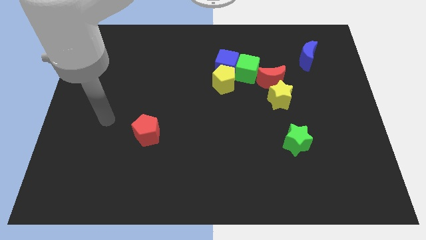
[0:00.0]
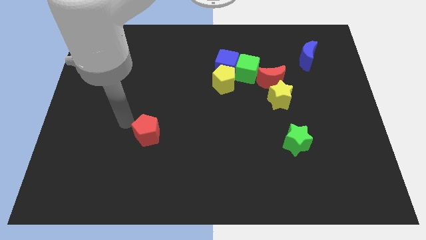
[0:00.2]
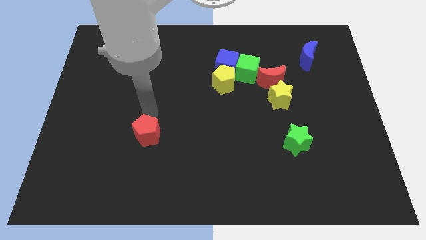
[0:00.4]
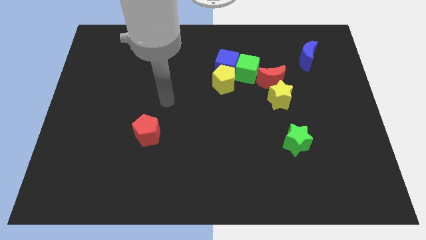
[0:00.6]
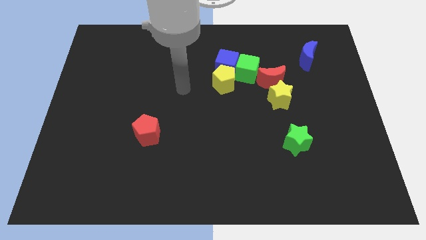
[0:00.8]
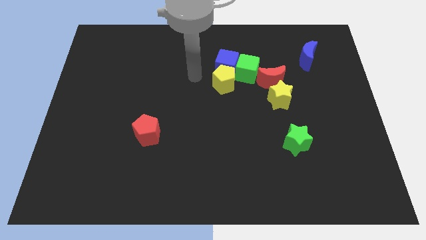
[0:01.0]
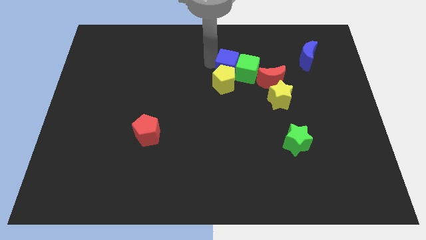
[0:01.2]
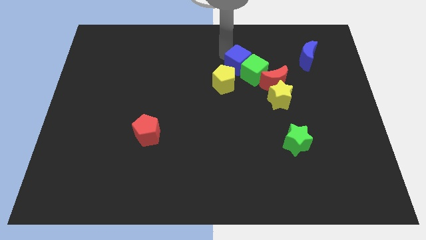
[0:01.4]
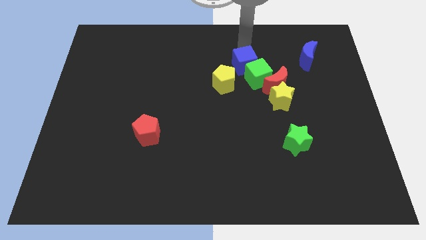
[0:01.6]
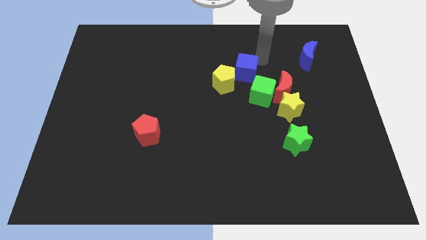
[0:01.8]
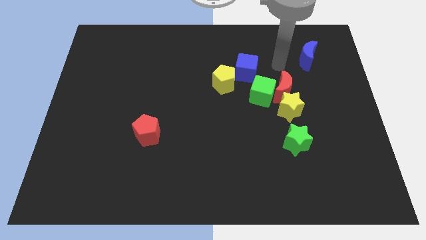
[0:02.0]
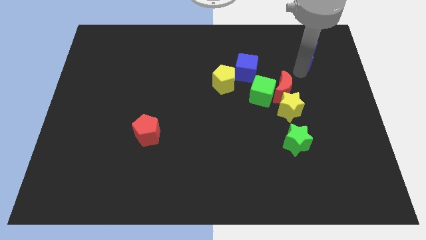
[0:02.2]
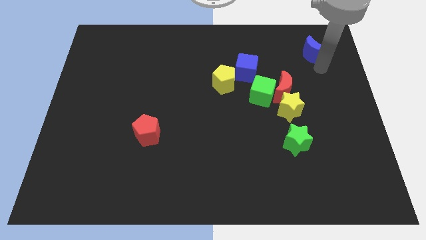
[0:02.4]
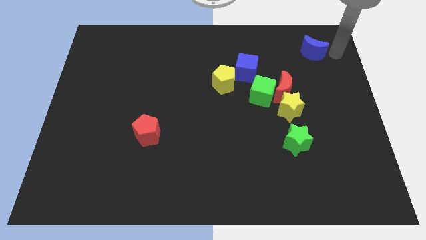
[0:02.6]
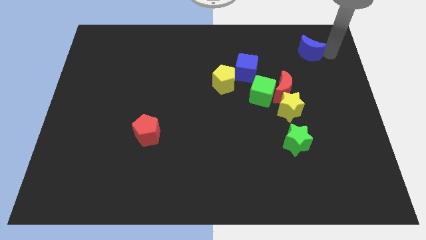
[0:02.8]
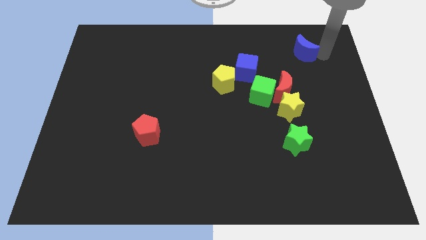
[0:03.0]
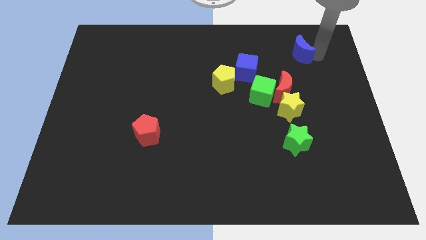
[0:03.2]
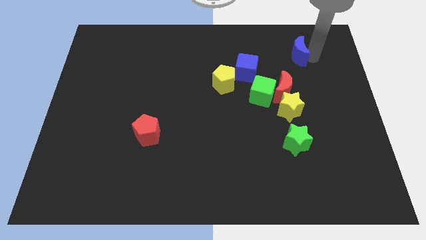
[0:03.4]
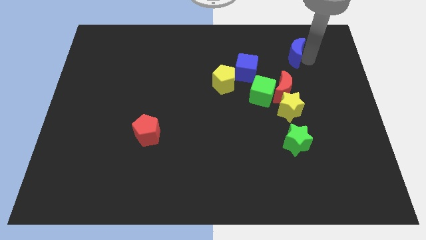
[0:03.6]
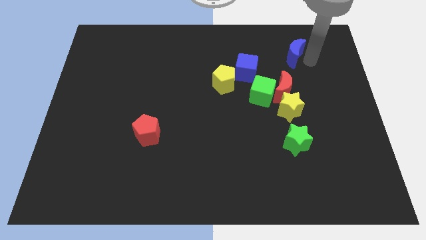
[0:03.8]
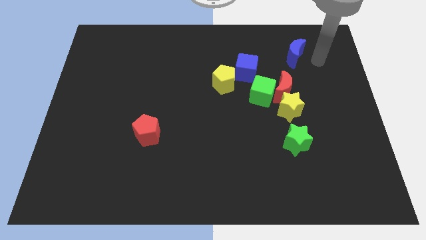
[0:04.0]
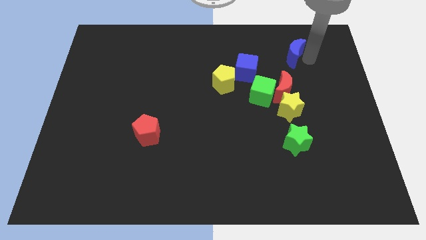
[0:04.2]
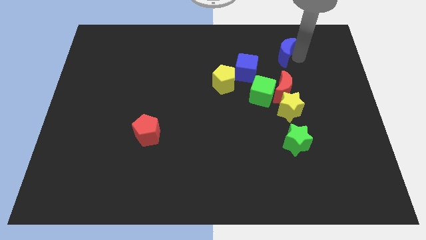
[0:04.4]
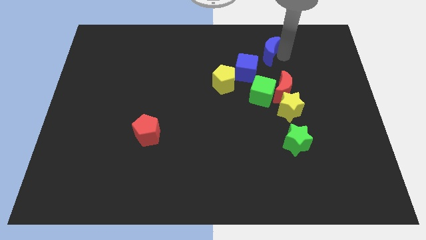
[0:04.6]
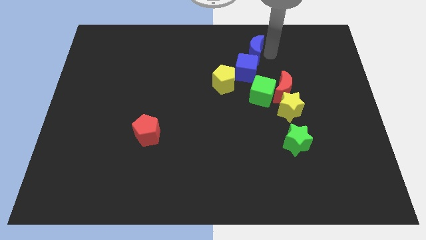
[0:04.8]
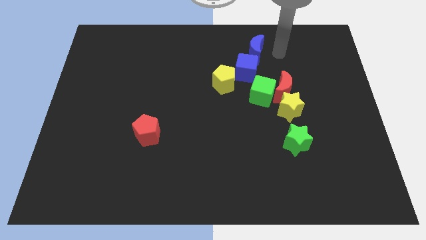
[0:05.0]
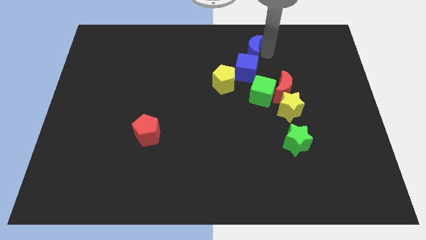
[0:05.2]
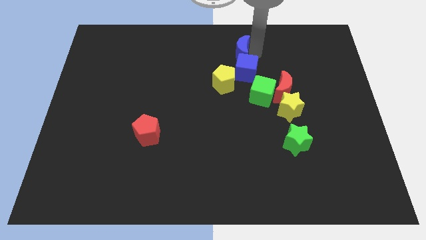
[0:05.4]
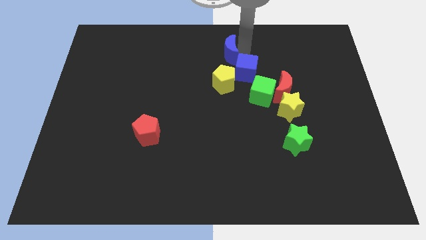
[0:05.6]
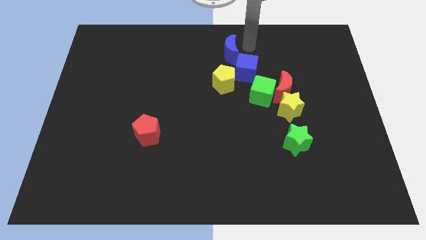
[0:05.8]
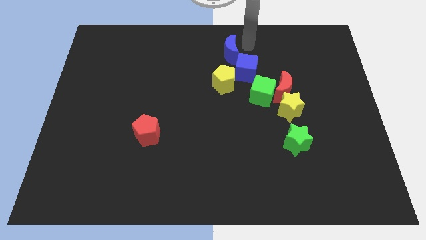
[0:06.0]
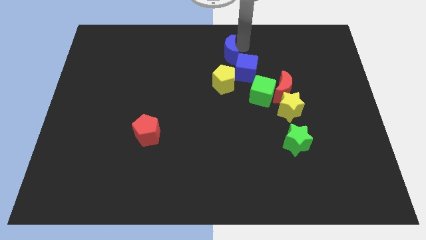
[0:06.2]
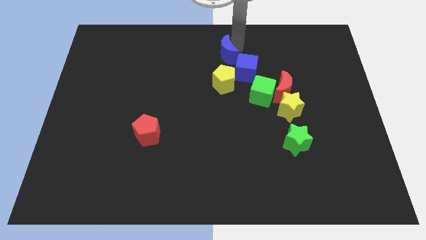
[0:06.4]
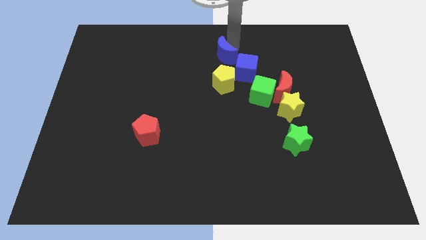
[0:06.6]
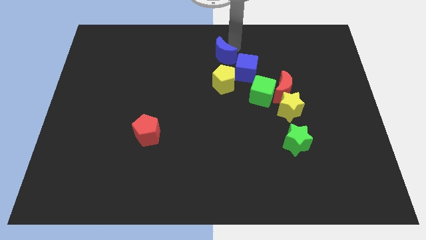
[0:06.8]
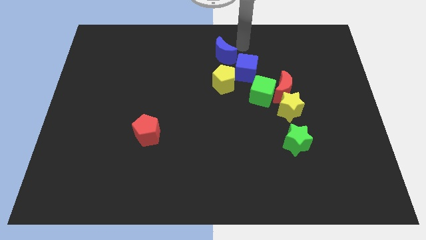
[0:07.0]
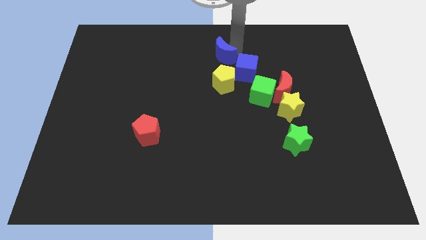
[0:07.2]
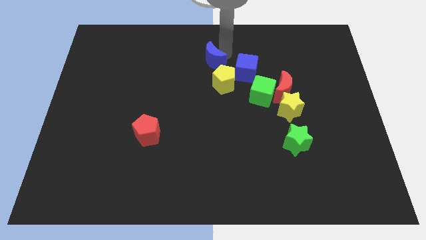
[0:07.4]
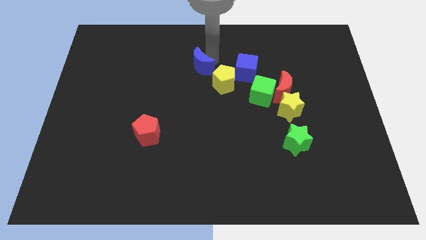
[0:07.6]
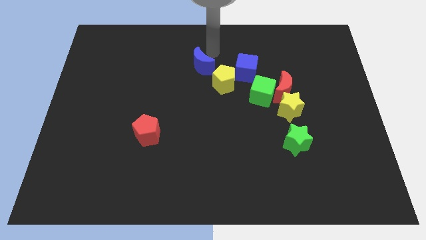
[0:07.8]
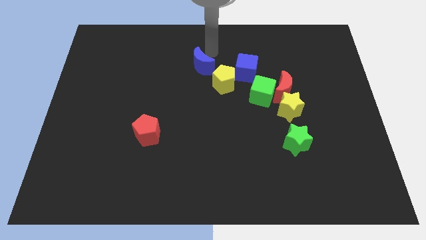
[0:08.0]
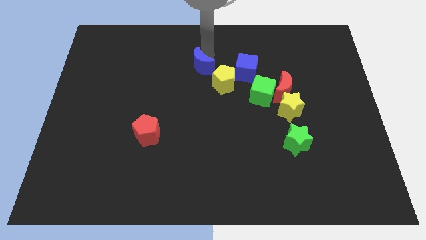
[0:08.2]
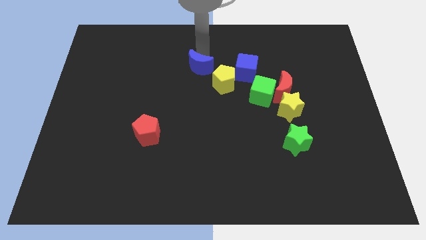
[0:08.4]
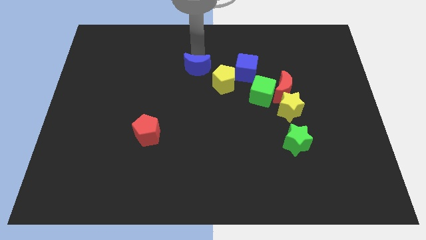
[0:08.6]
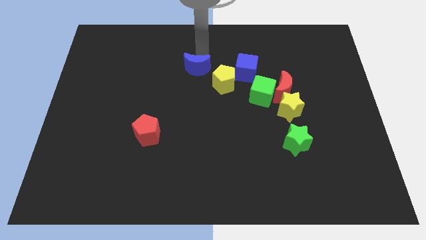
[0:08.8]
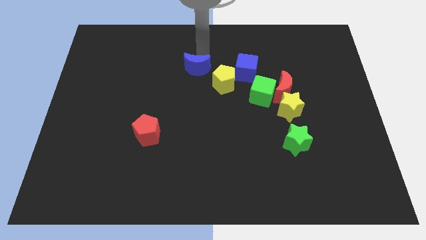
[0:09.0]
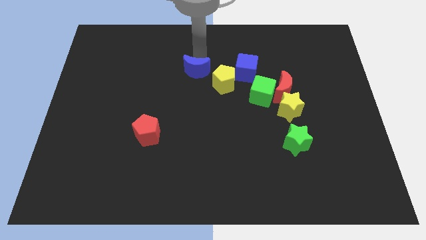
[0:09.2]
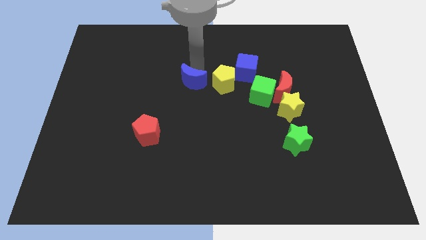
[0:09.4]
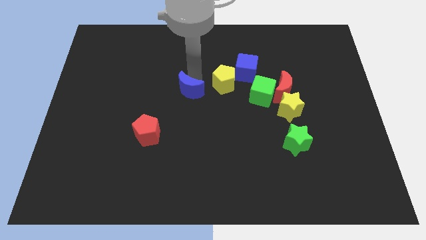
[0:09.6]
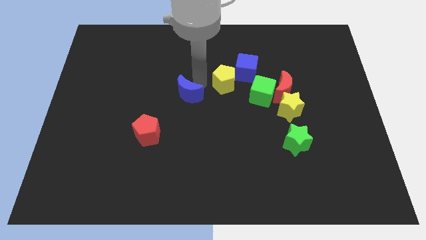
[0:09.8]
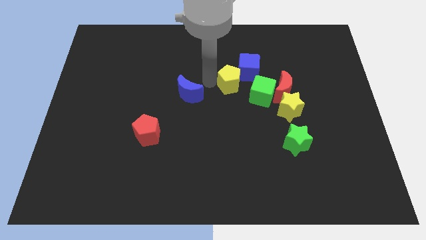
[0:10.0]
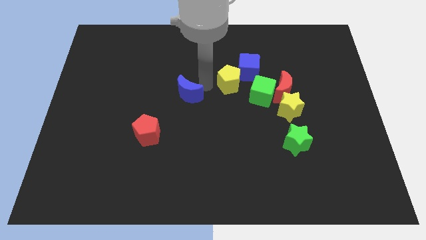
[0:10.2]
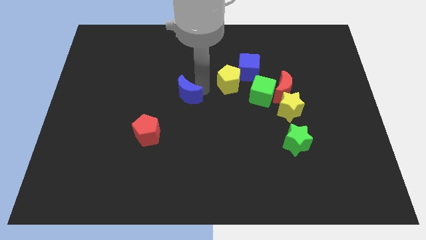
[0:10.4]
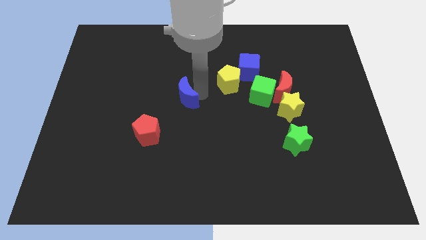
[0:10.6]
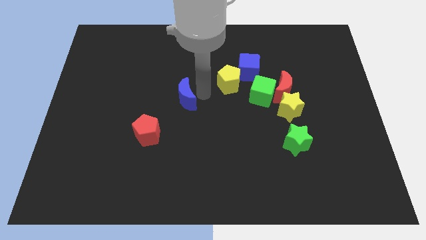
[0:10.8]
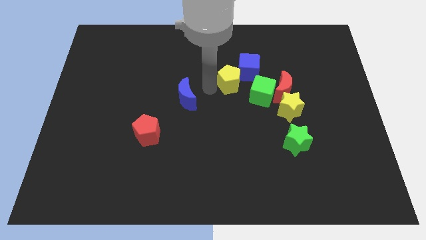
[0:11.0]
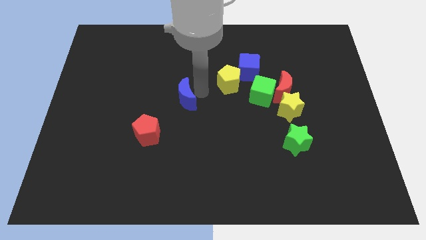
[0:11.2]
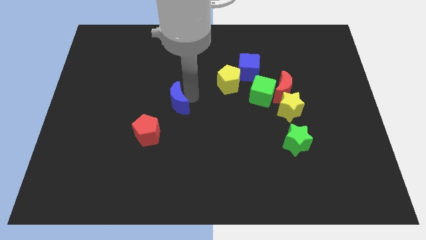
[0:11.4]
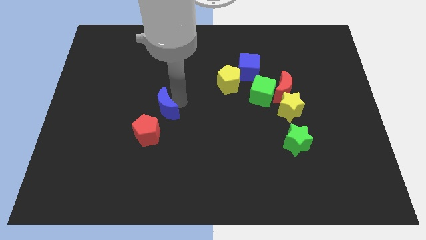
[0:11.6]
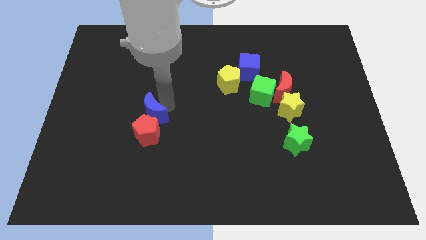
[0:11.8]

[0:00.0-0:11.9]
put the blue moon towards the red pentagon

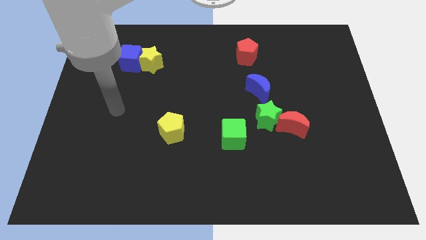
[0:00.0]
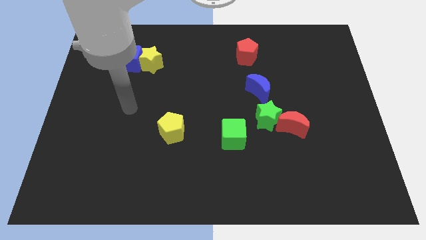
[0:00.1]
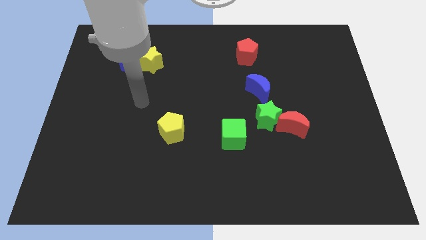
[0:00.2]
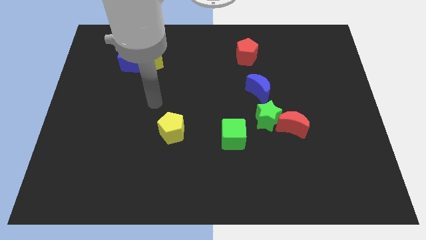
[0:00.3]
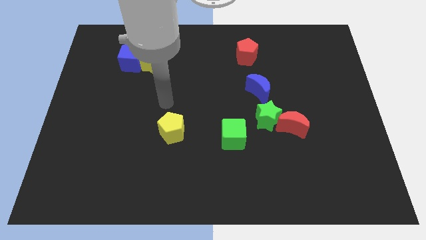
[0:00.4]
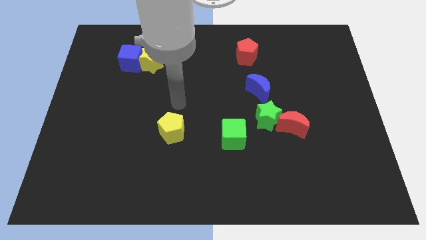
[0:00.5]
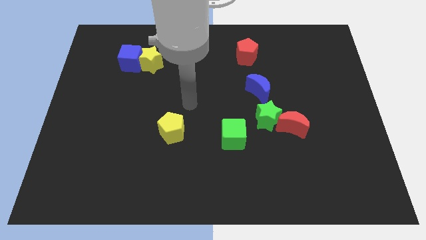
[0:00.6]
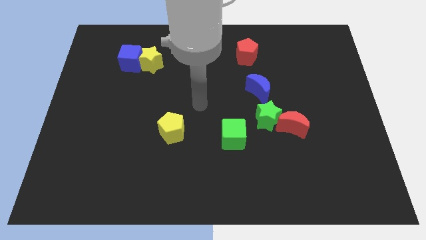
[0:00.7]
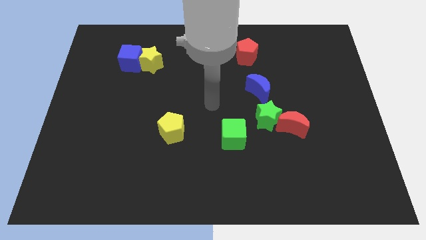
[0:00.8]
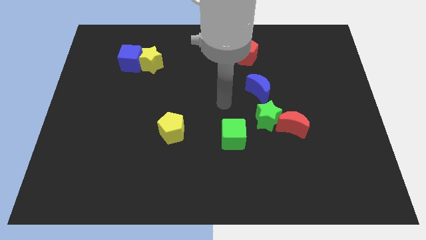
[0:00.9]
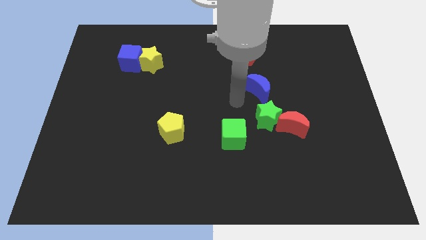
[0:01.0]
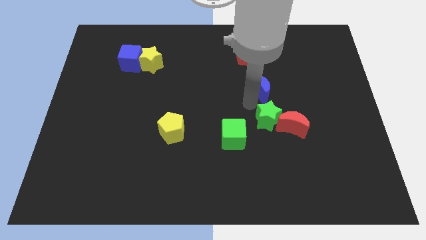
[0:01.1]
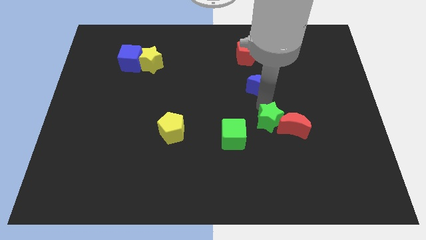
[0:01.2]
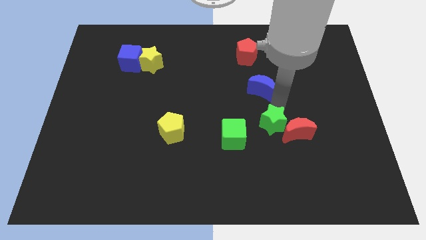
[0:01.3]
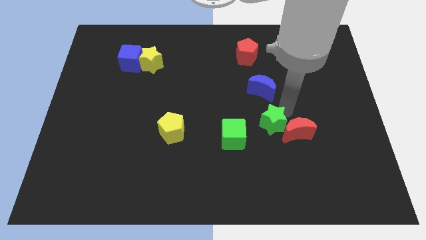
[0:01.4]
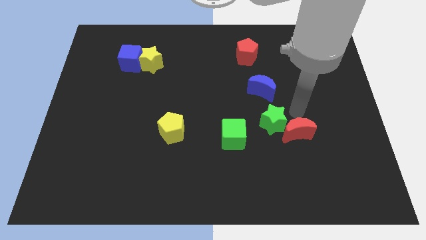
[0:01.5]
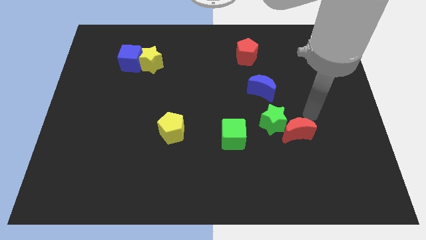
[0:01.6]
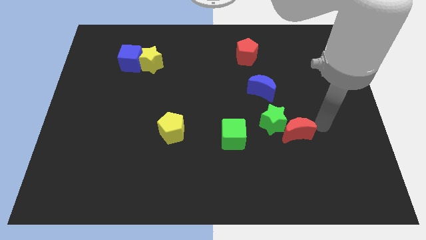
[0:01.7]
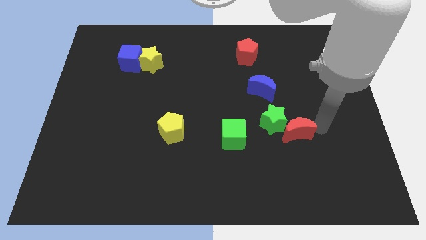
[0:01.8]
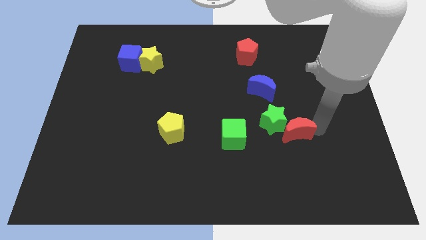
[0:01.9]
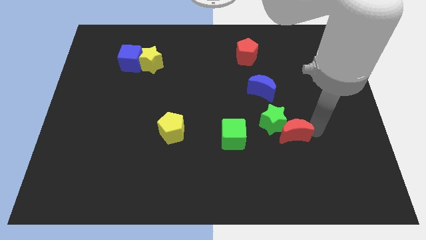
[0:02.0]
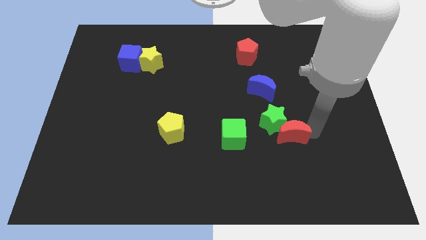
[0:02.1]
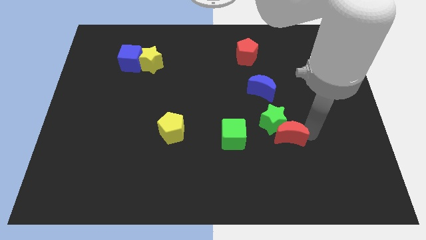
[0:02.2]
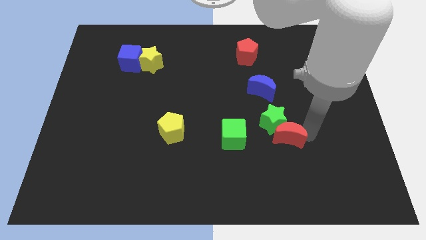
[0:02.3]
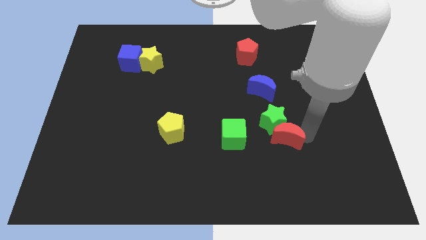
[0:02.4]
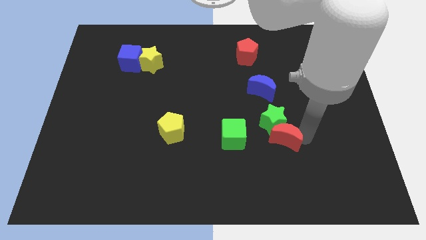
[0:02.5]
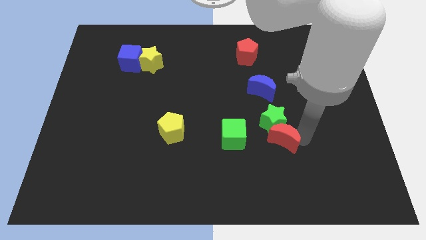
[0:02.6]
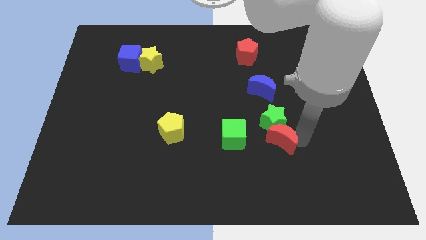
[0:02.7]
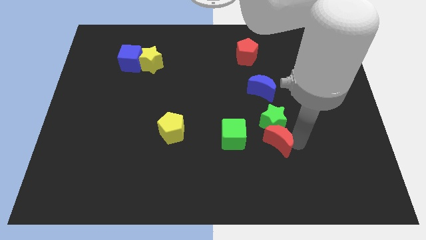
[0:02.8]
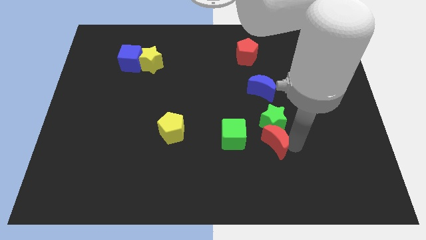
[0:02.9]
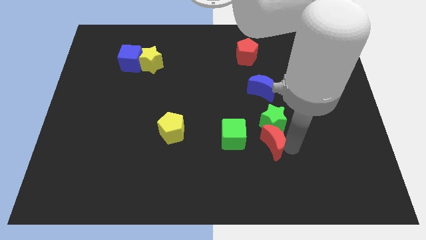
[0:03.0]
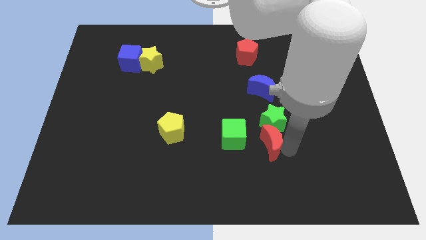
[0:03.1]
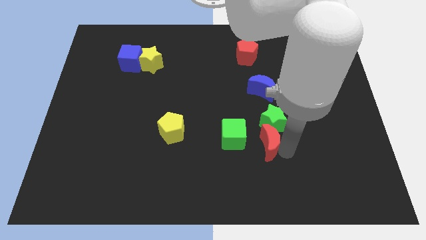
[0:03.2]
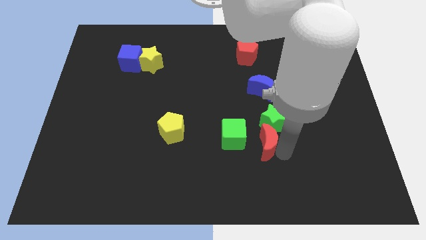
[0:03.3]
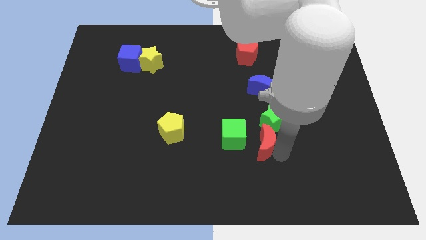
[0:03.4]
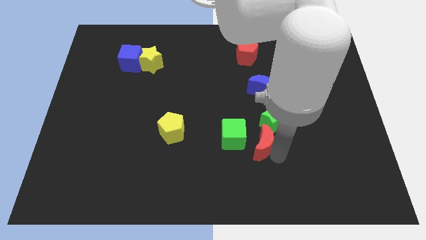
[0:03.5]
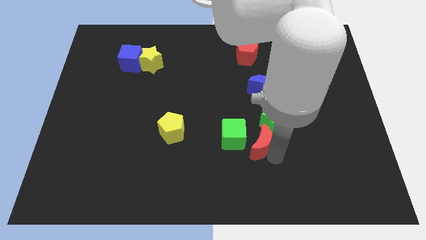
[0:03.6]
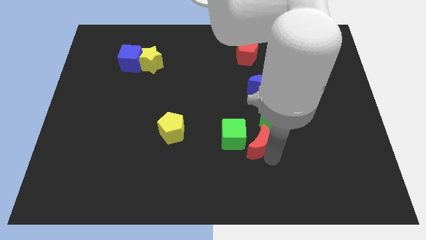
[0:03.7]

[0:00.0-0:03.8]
move the red moon next to the green cube
